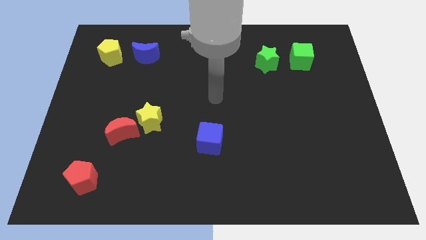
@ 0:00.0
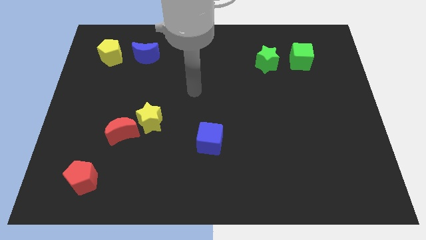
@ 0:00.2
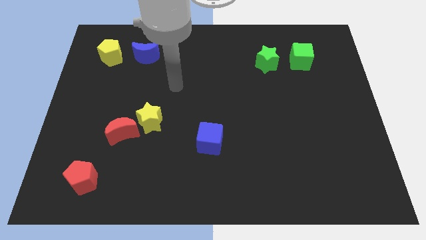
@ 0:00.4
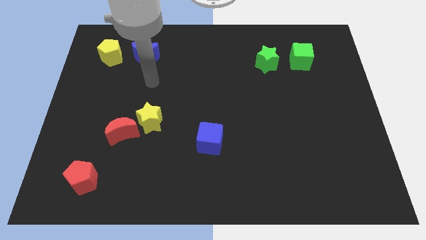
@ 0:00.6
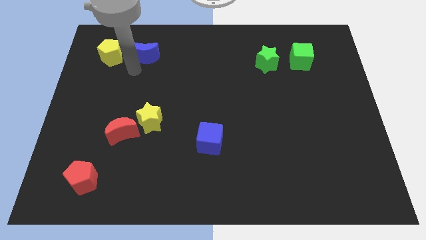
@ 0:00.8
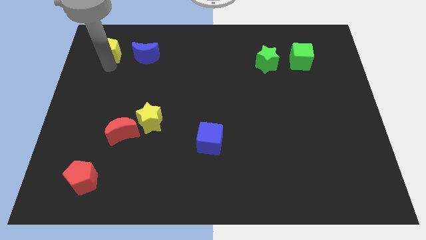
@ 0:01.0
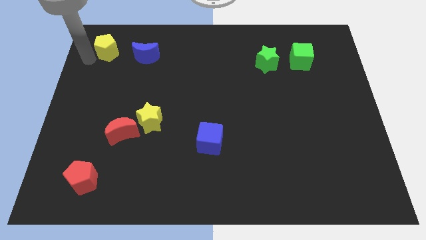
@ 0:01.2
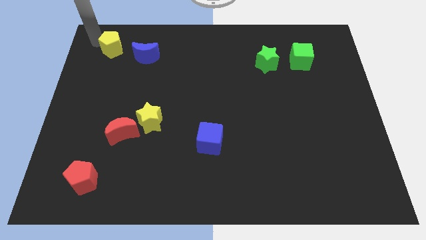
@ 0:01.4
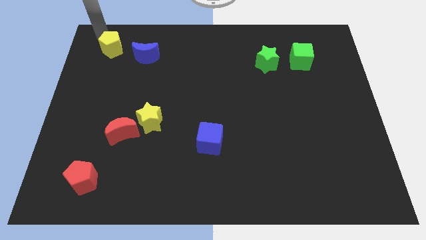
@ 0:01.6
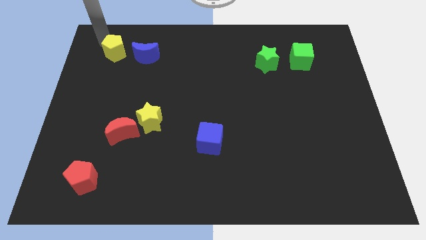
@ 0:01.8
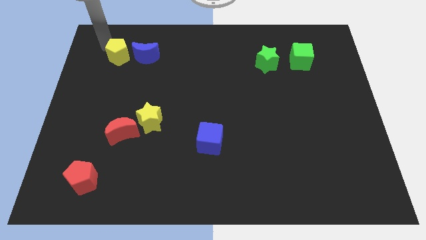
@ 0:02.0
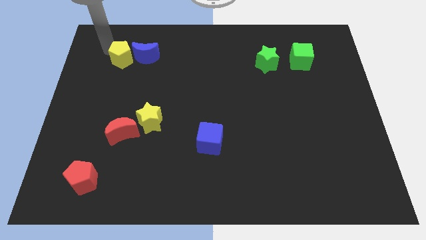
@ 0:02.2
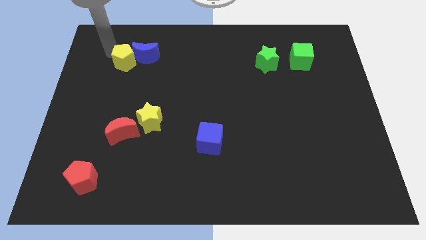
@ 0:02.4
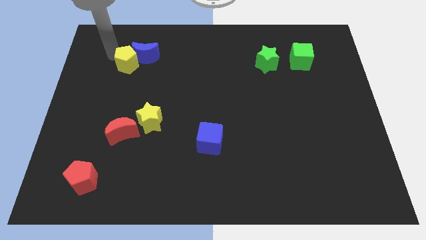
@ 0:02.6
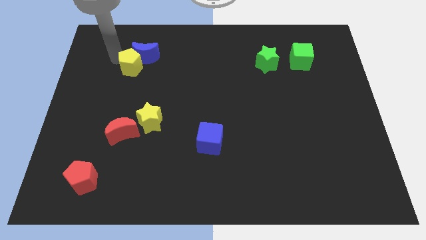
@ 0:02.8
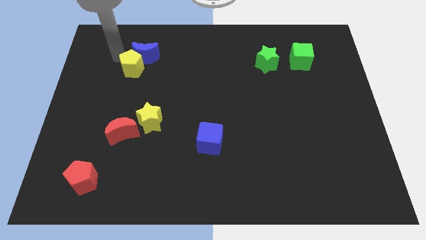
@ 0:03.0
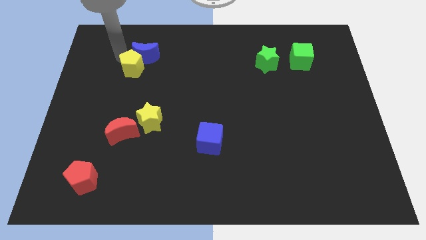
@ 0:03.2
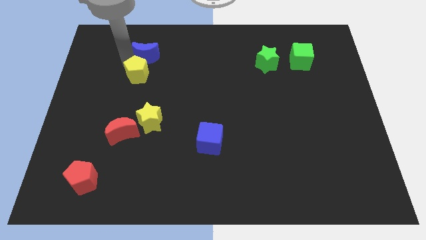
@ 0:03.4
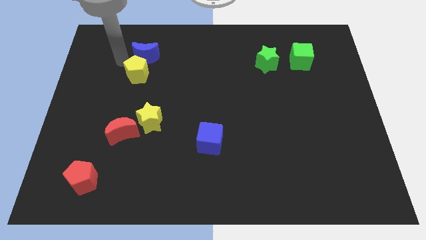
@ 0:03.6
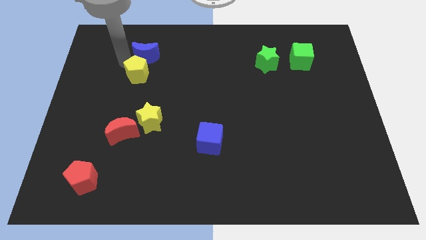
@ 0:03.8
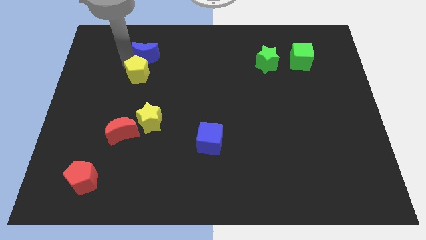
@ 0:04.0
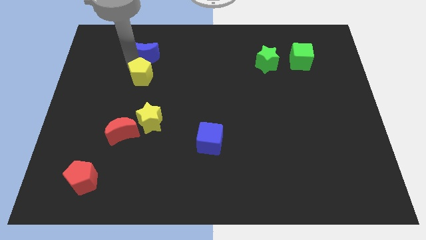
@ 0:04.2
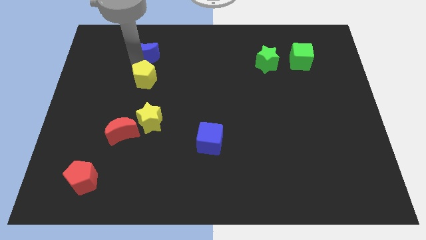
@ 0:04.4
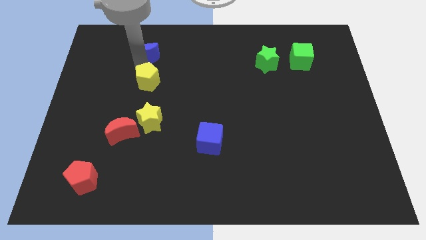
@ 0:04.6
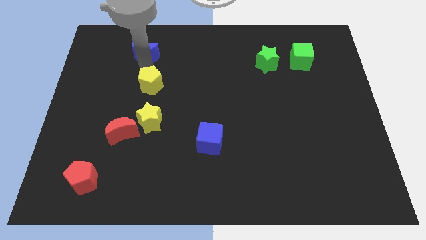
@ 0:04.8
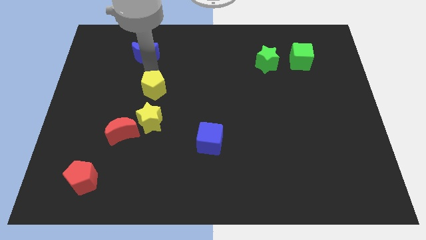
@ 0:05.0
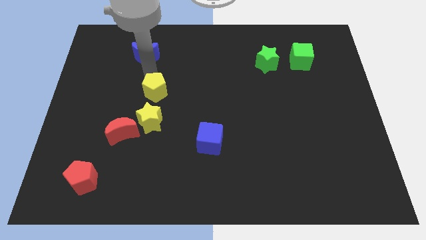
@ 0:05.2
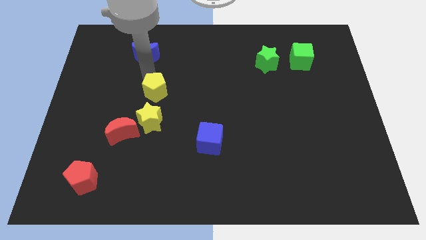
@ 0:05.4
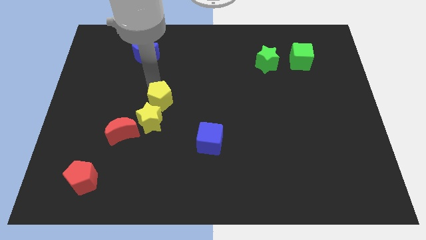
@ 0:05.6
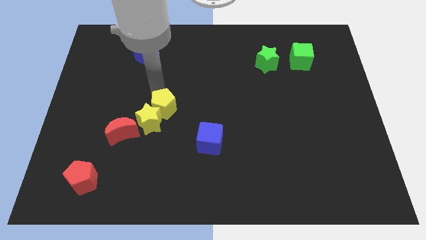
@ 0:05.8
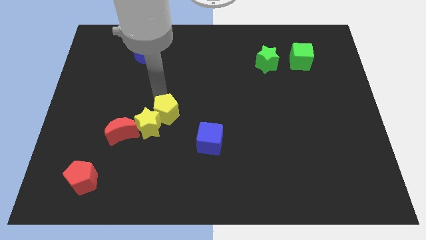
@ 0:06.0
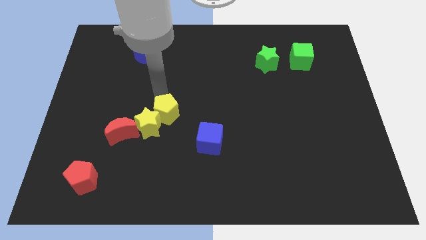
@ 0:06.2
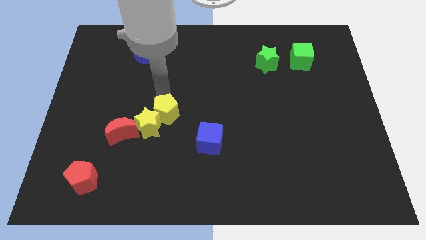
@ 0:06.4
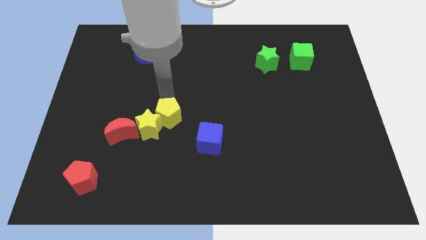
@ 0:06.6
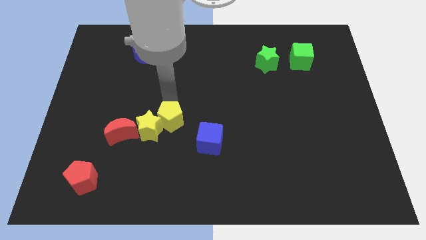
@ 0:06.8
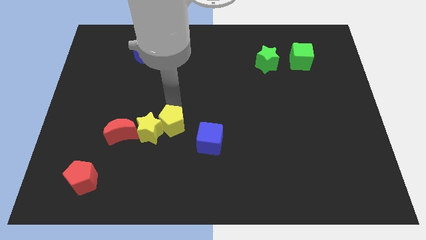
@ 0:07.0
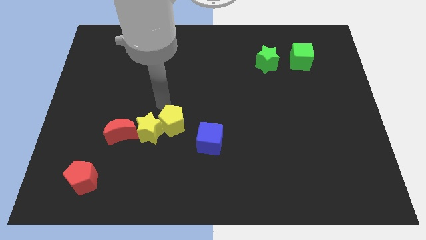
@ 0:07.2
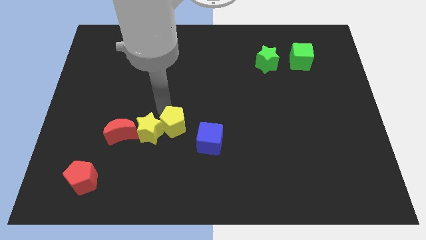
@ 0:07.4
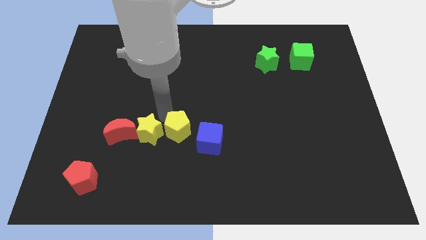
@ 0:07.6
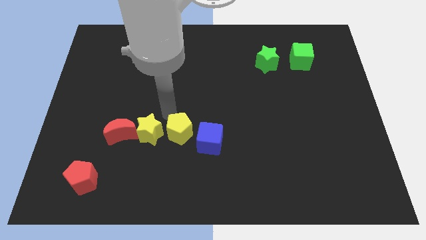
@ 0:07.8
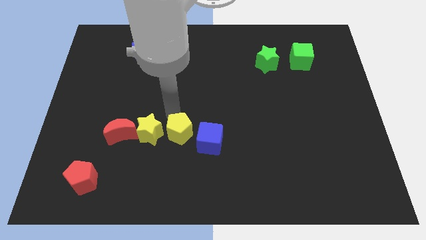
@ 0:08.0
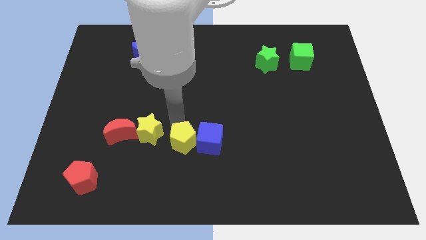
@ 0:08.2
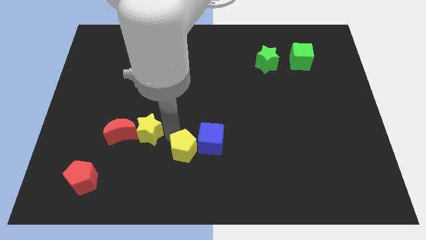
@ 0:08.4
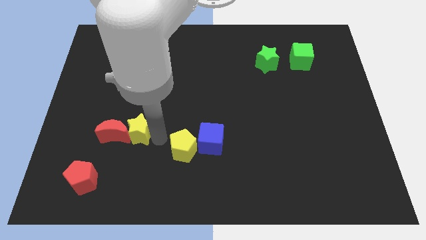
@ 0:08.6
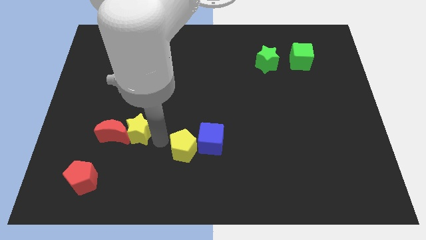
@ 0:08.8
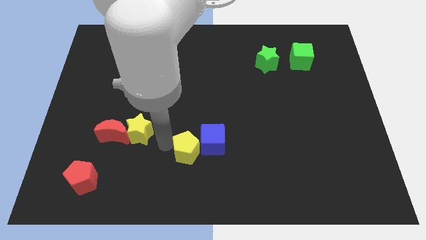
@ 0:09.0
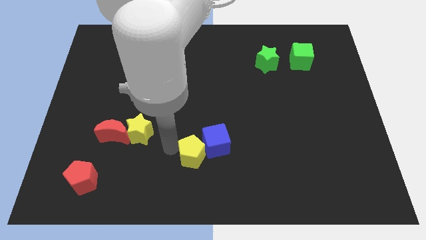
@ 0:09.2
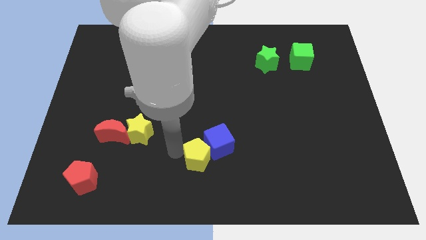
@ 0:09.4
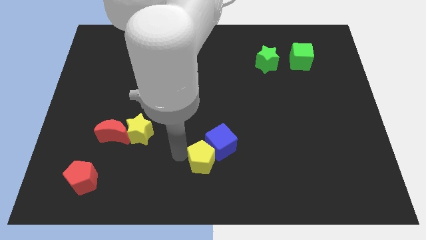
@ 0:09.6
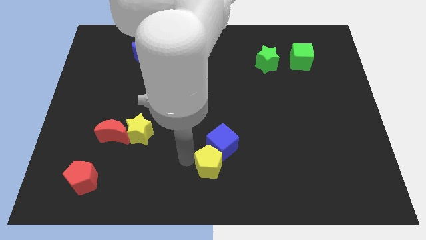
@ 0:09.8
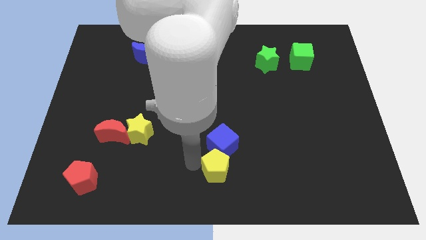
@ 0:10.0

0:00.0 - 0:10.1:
put the yellow pentagon to the bottom right side of the blue cube

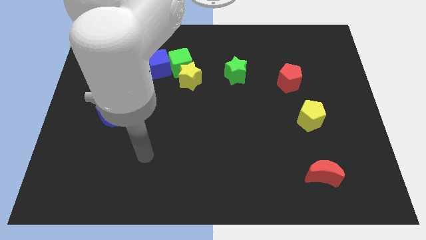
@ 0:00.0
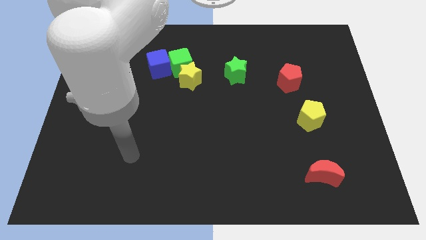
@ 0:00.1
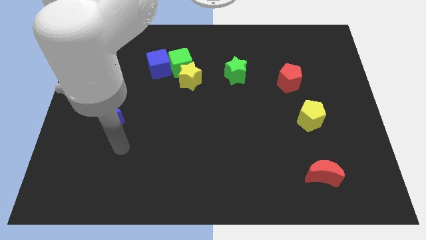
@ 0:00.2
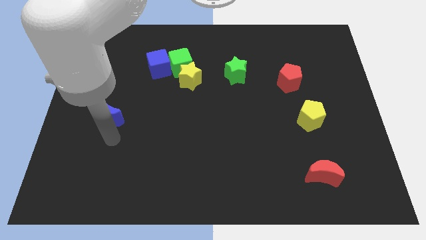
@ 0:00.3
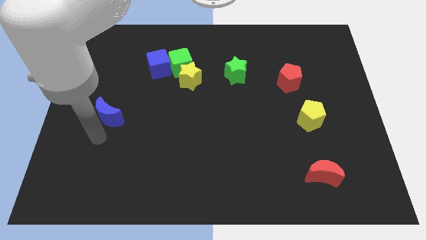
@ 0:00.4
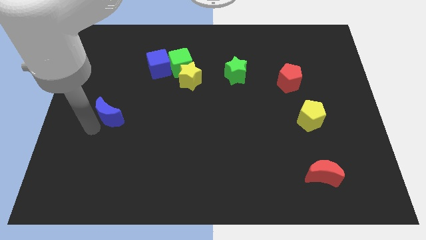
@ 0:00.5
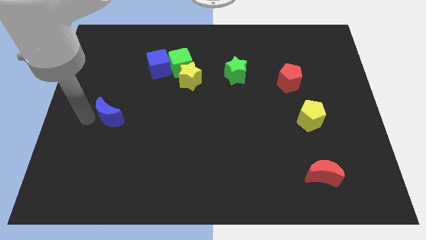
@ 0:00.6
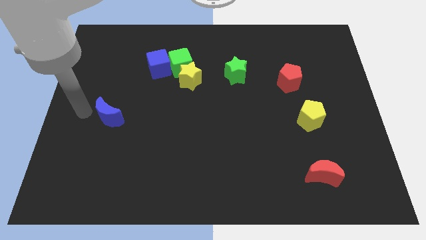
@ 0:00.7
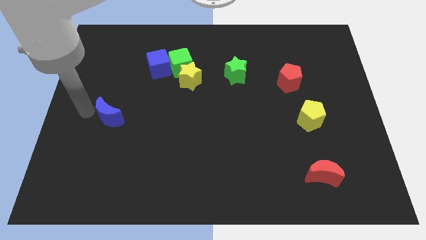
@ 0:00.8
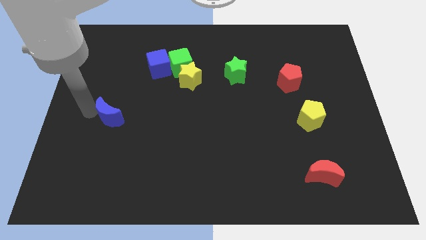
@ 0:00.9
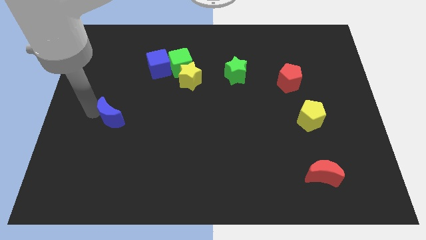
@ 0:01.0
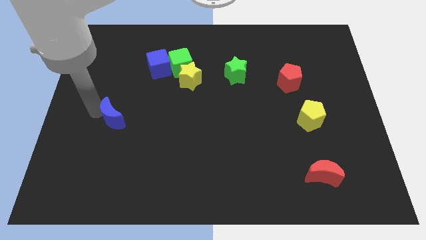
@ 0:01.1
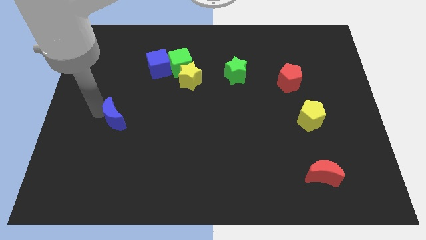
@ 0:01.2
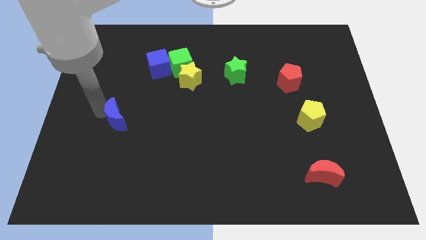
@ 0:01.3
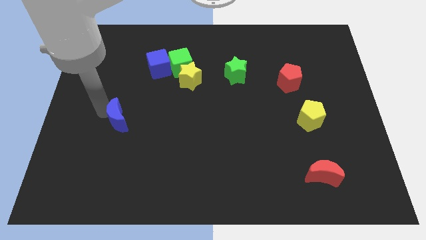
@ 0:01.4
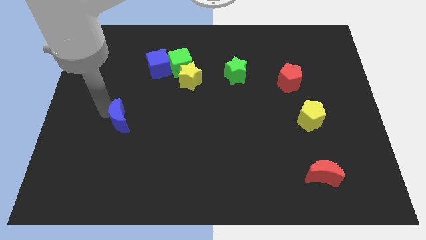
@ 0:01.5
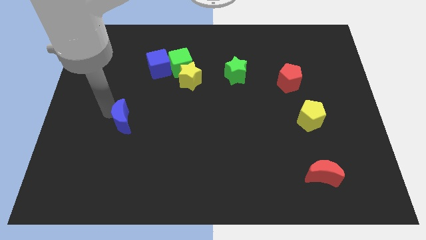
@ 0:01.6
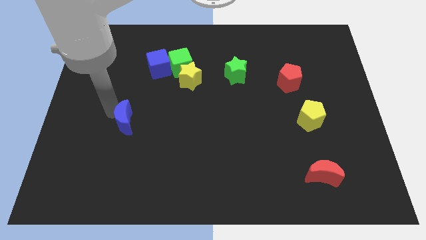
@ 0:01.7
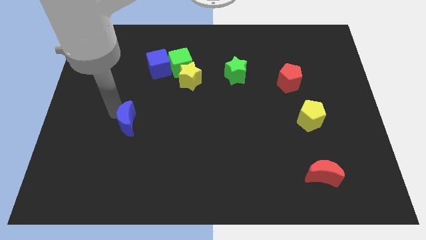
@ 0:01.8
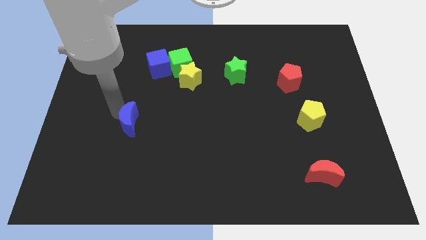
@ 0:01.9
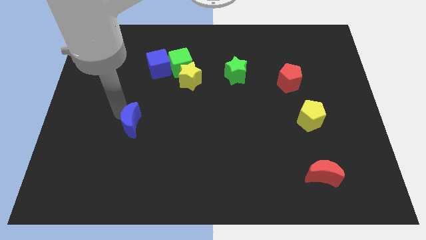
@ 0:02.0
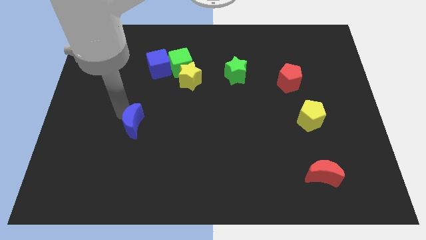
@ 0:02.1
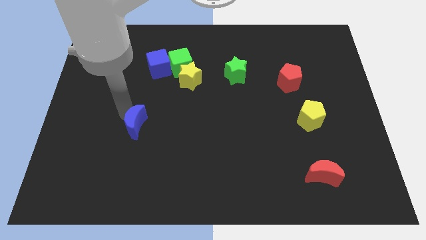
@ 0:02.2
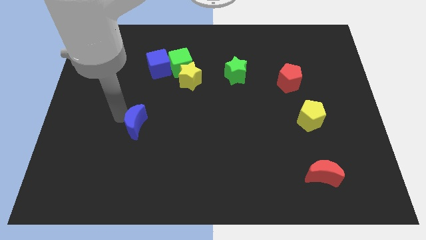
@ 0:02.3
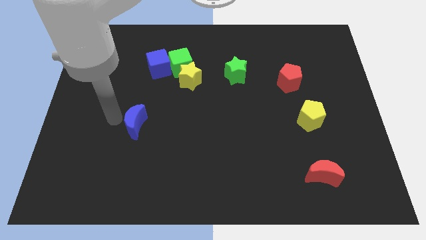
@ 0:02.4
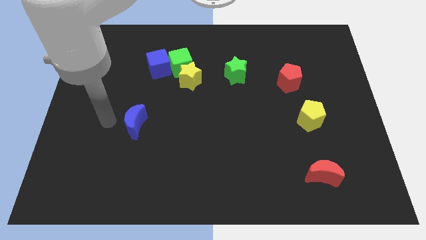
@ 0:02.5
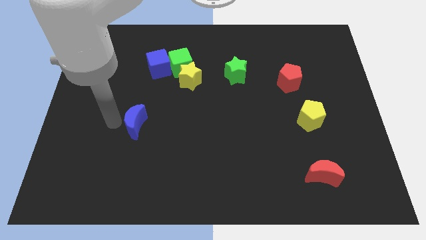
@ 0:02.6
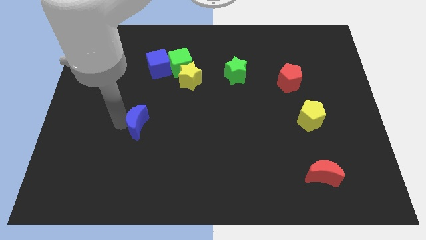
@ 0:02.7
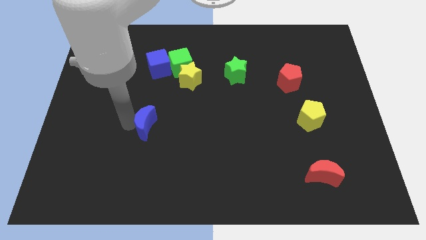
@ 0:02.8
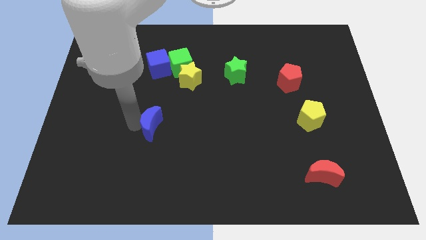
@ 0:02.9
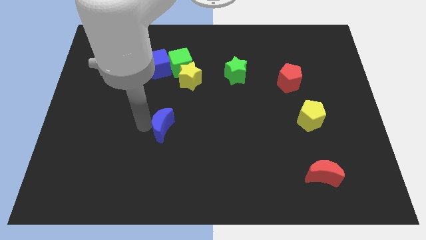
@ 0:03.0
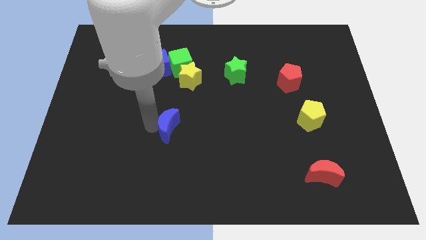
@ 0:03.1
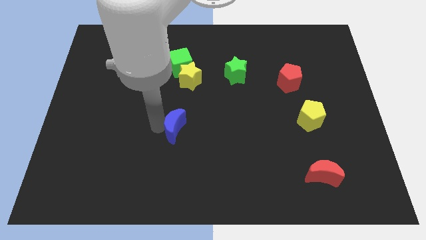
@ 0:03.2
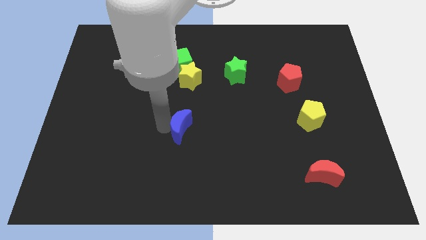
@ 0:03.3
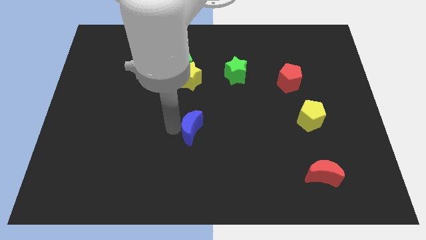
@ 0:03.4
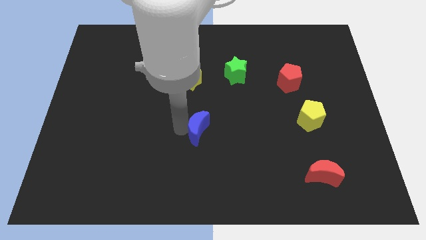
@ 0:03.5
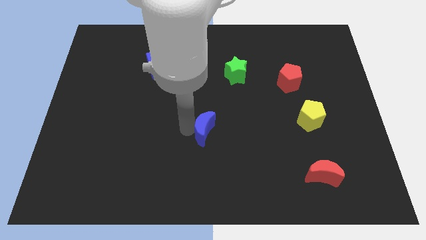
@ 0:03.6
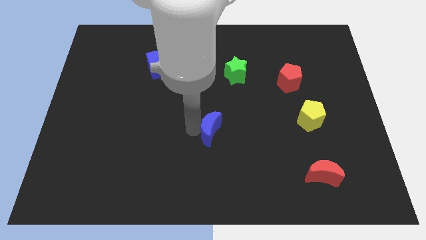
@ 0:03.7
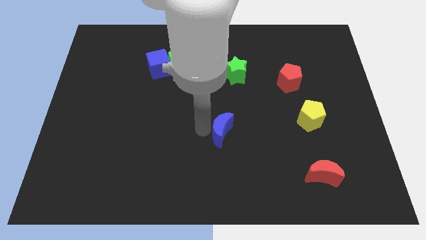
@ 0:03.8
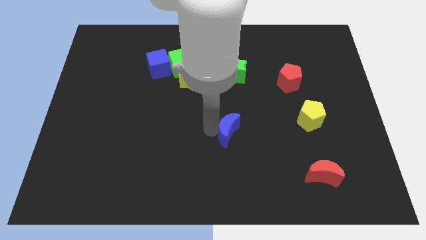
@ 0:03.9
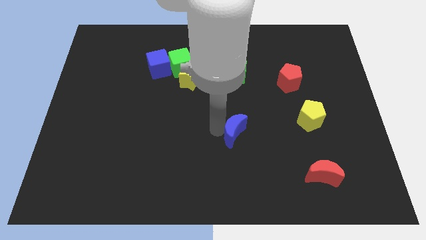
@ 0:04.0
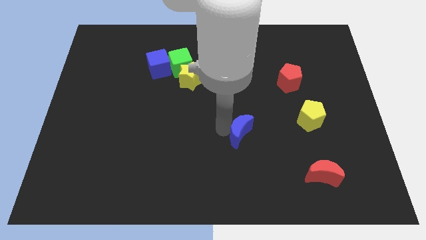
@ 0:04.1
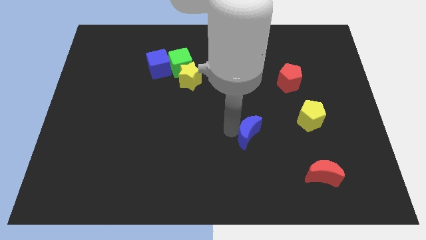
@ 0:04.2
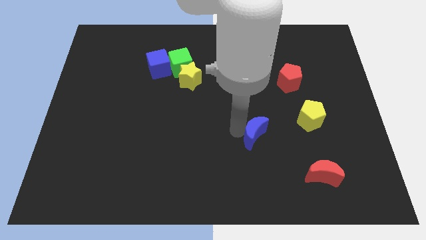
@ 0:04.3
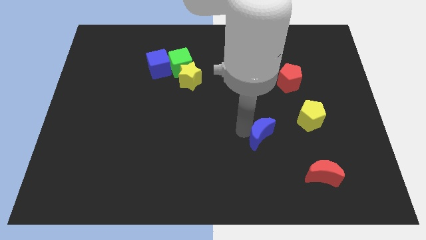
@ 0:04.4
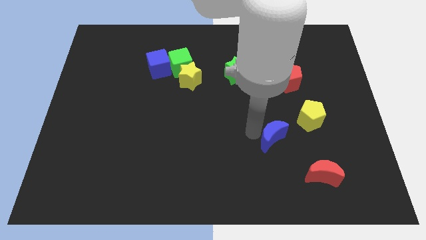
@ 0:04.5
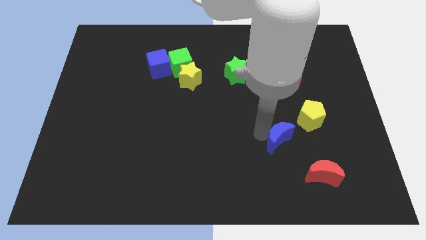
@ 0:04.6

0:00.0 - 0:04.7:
slide the blue moon to the top left of the red moon
